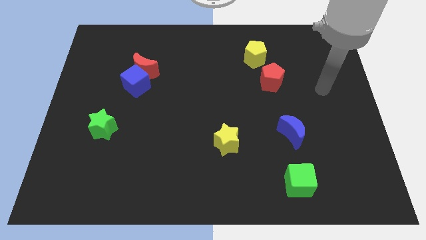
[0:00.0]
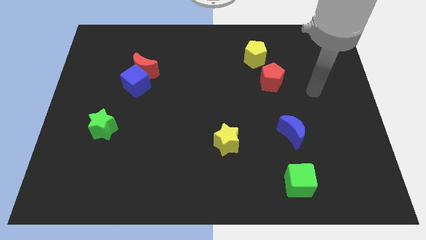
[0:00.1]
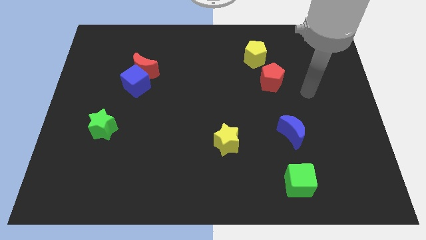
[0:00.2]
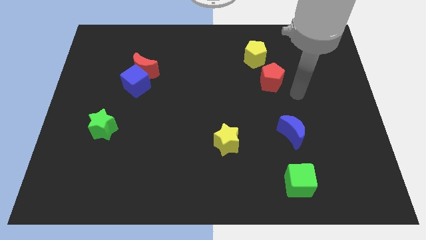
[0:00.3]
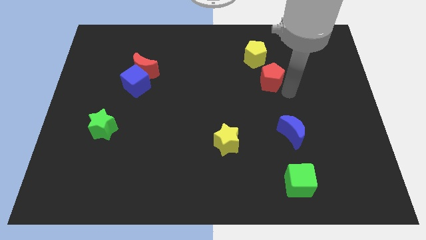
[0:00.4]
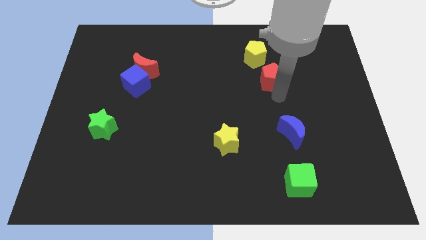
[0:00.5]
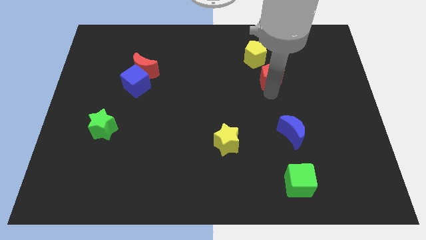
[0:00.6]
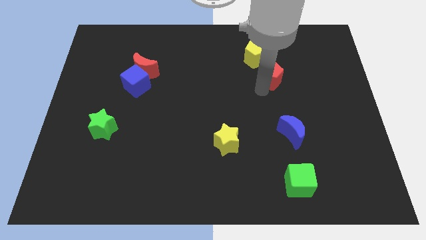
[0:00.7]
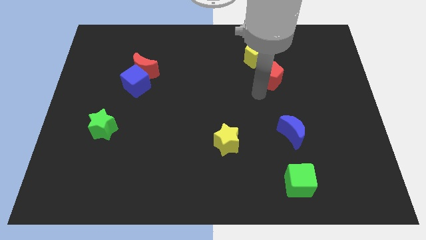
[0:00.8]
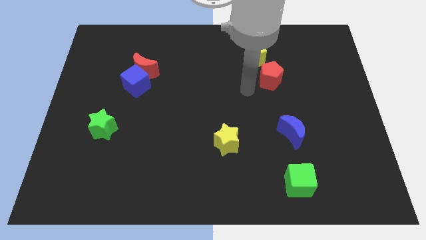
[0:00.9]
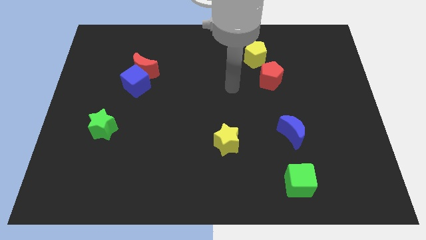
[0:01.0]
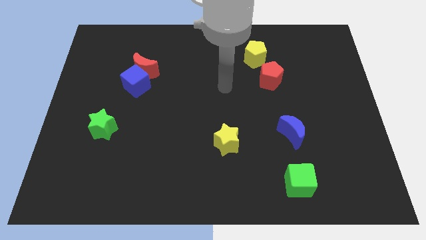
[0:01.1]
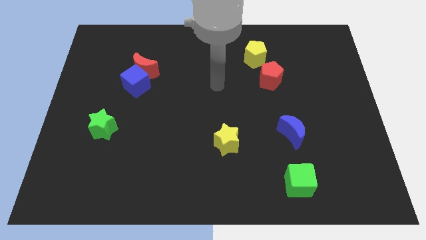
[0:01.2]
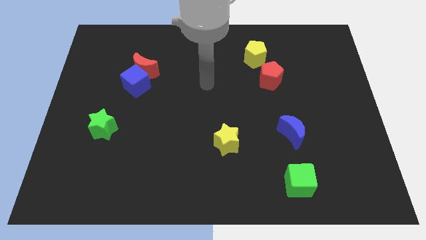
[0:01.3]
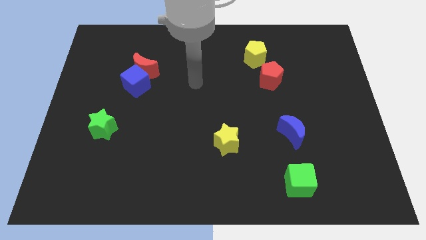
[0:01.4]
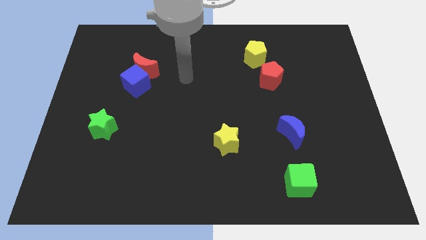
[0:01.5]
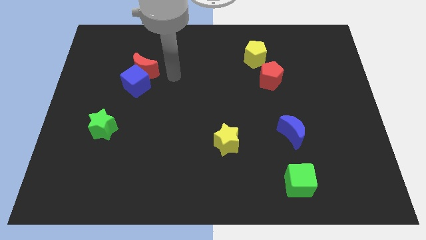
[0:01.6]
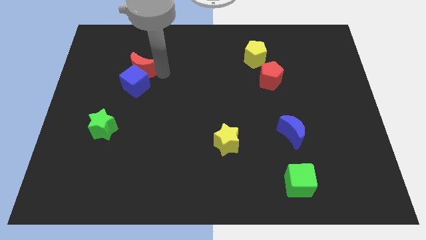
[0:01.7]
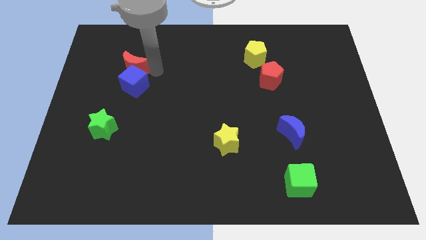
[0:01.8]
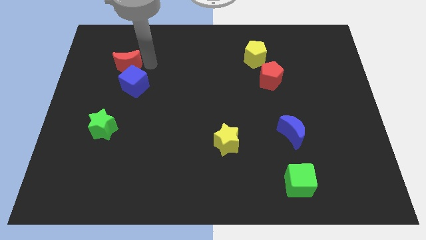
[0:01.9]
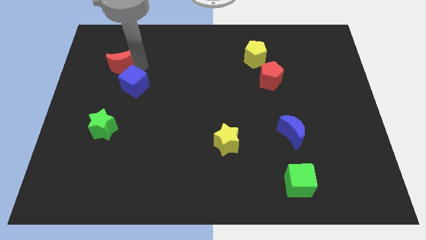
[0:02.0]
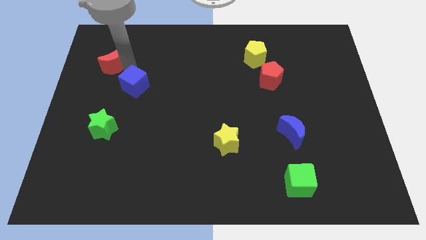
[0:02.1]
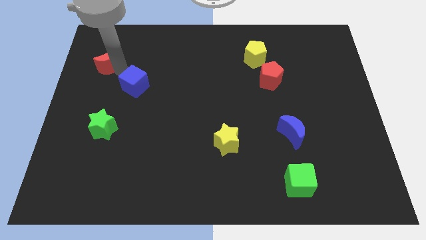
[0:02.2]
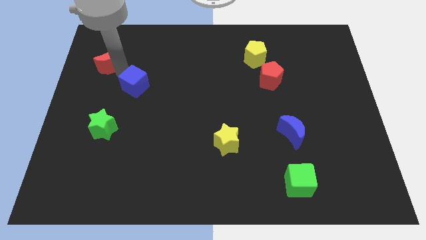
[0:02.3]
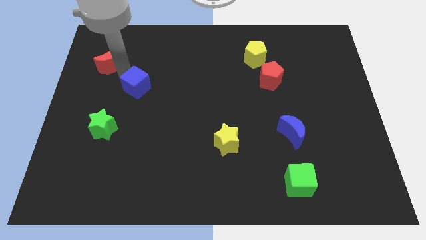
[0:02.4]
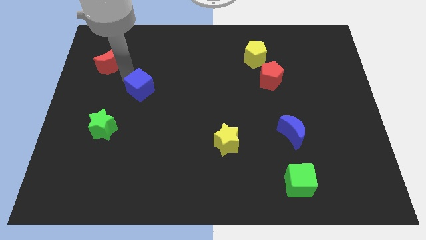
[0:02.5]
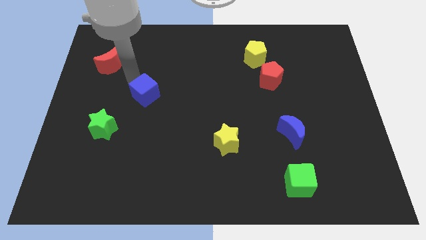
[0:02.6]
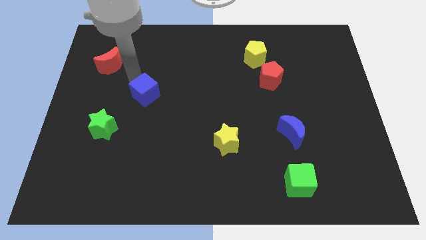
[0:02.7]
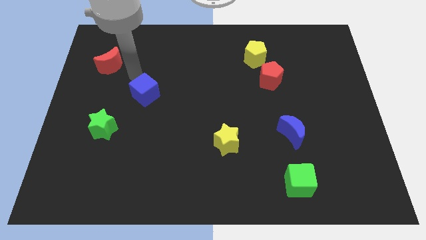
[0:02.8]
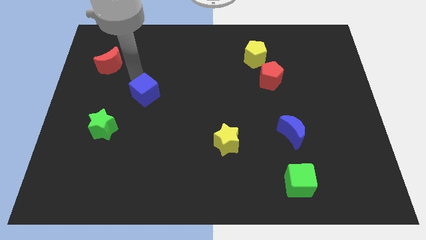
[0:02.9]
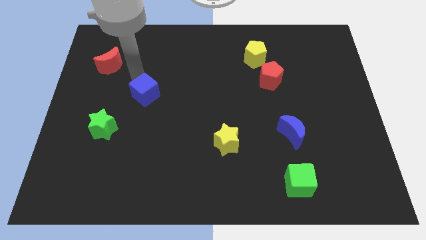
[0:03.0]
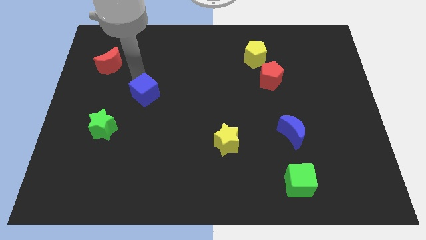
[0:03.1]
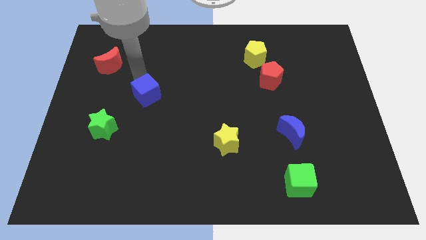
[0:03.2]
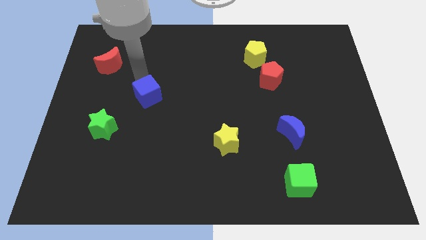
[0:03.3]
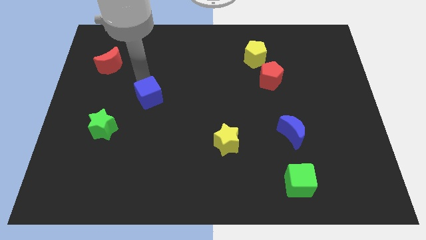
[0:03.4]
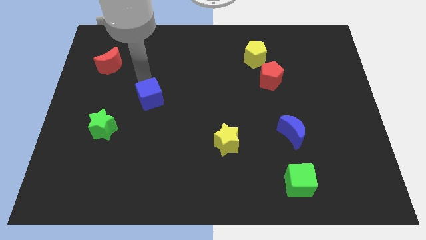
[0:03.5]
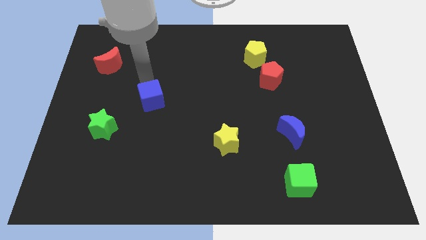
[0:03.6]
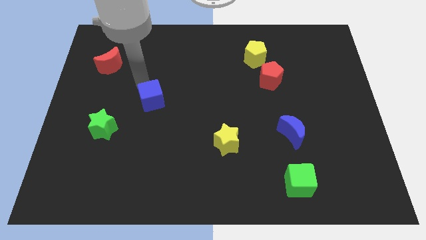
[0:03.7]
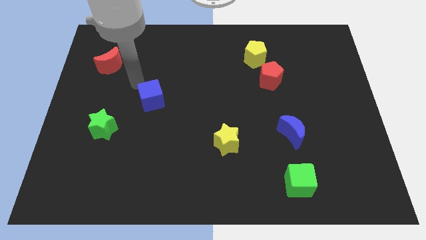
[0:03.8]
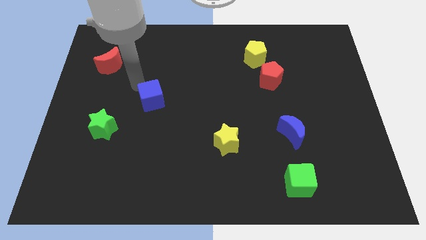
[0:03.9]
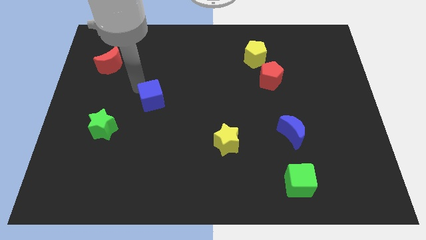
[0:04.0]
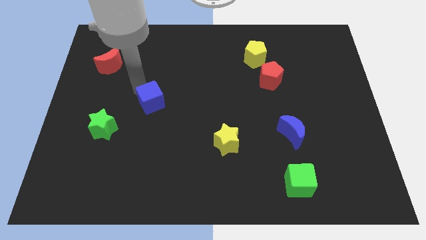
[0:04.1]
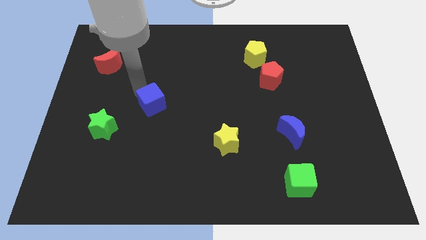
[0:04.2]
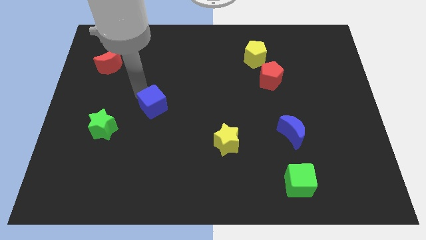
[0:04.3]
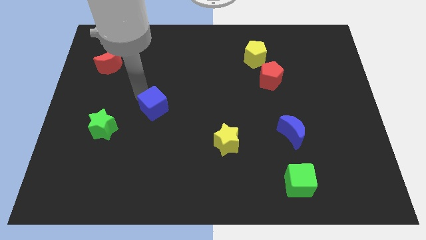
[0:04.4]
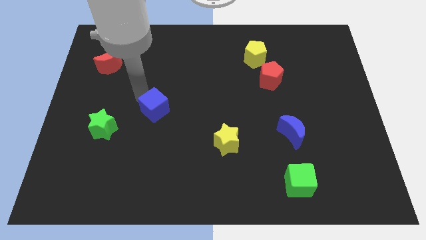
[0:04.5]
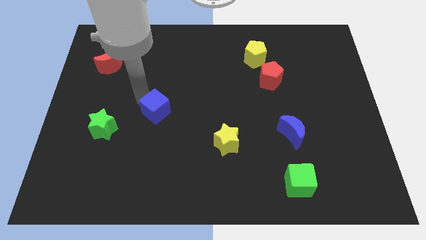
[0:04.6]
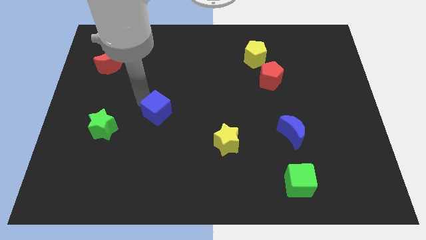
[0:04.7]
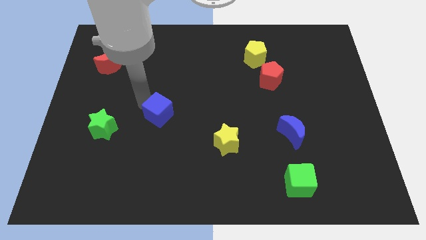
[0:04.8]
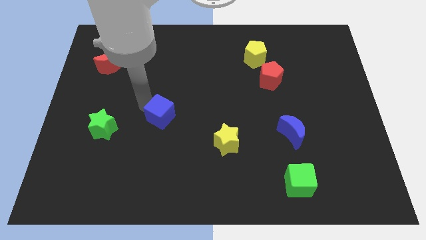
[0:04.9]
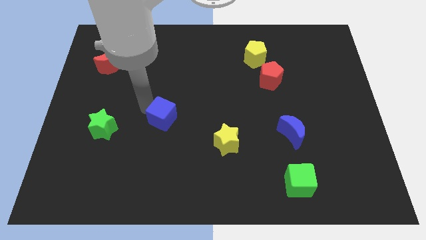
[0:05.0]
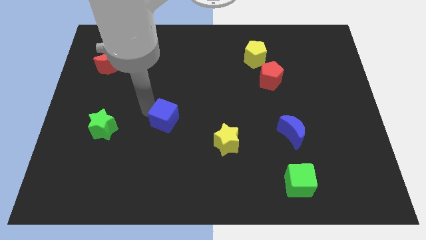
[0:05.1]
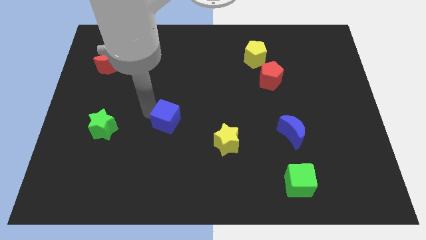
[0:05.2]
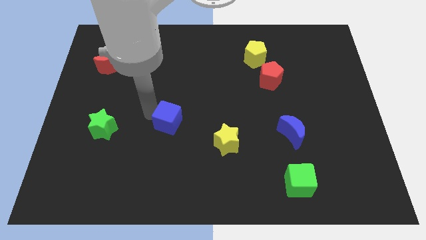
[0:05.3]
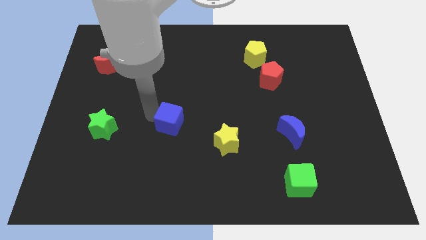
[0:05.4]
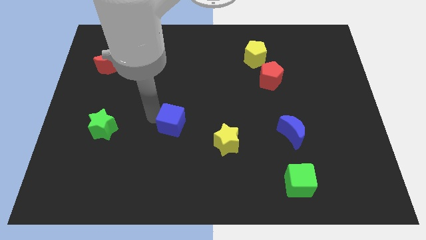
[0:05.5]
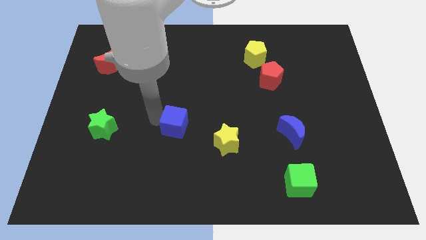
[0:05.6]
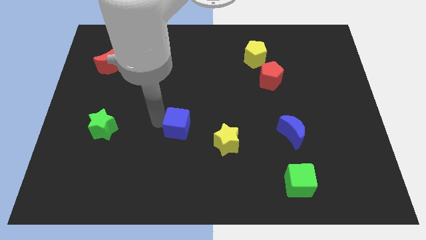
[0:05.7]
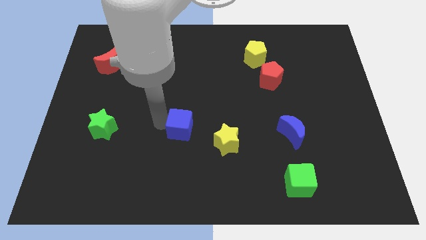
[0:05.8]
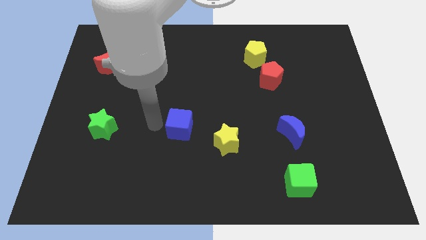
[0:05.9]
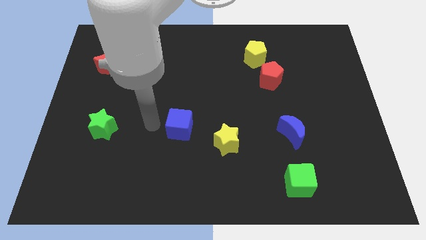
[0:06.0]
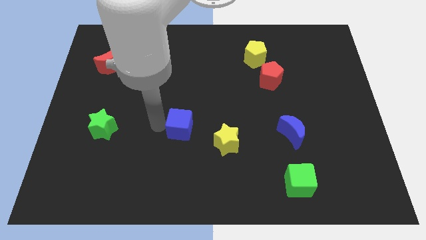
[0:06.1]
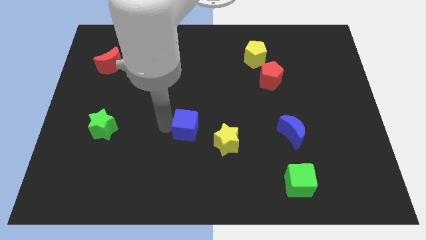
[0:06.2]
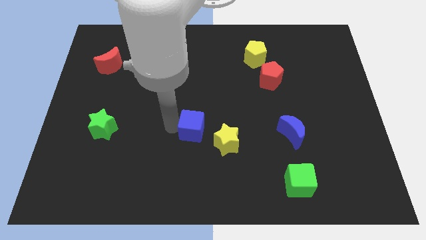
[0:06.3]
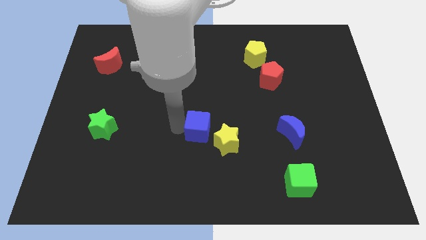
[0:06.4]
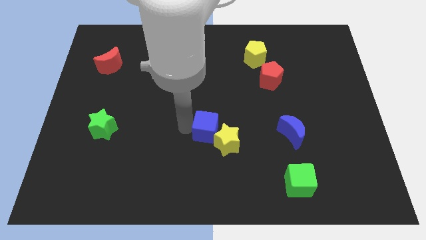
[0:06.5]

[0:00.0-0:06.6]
move the blue cube towards the yellow star
